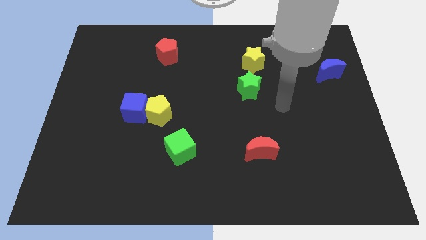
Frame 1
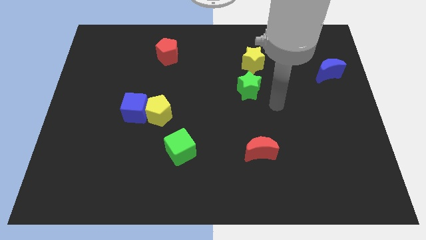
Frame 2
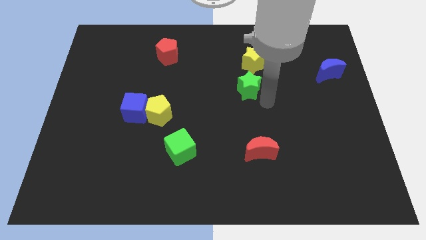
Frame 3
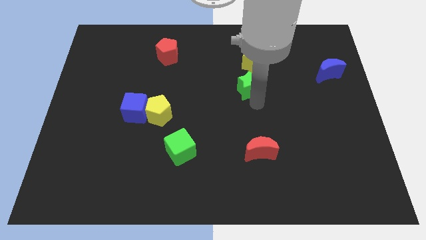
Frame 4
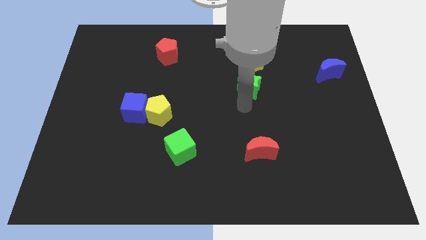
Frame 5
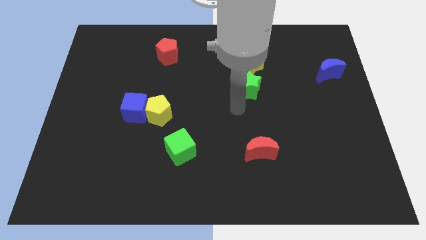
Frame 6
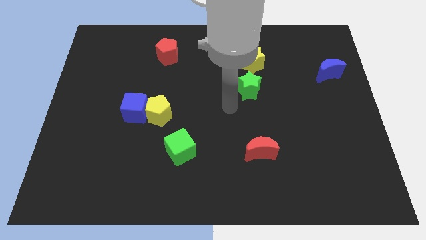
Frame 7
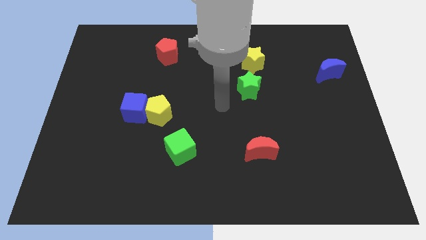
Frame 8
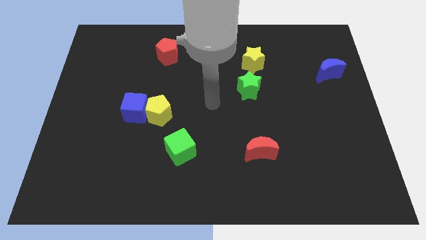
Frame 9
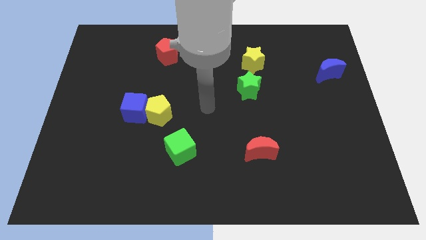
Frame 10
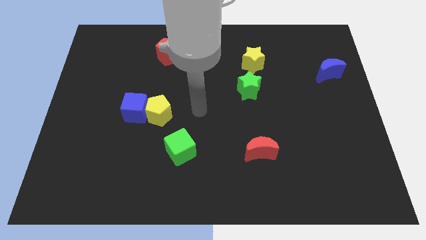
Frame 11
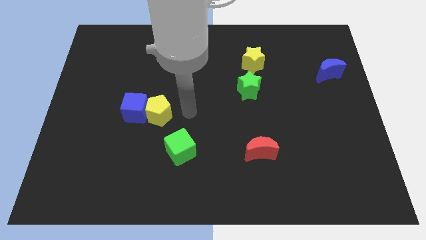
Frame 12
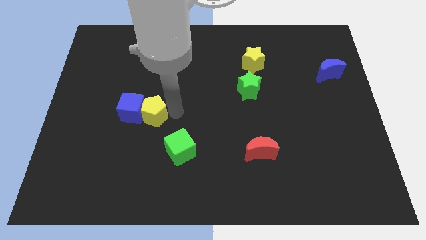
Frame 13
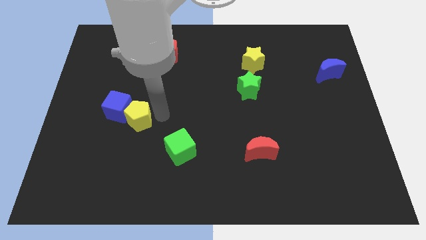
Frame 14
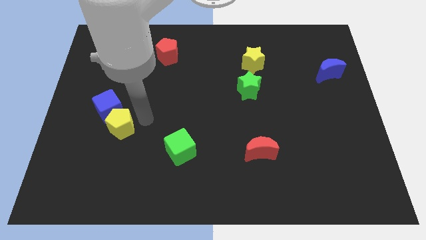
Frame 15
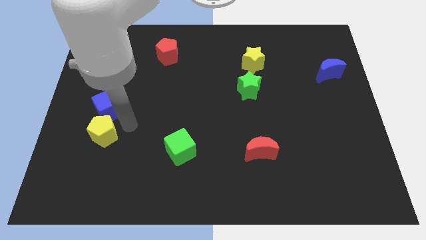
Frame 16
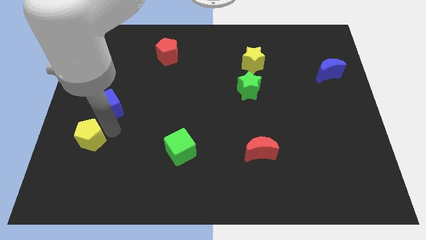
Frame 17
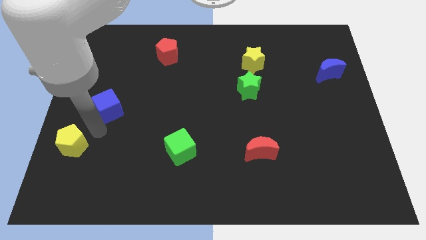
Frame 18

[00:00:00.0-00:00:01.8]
move the blue cube away from the yellow pentagon

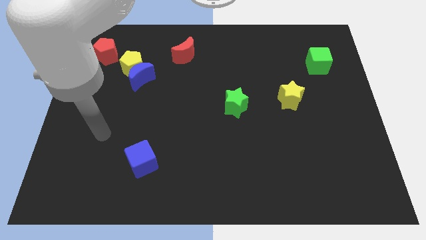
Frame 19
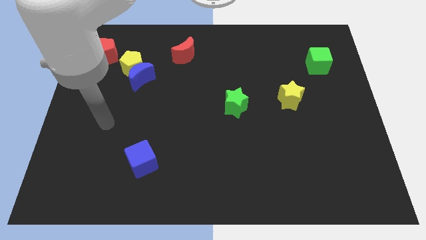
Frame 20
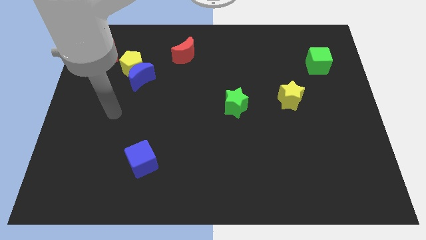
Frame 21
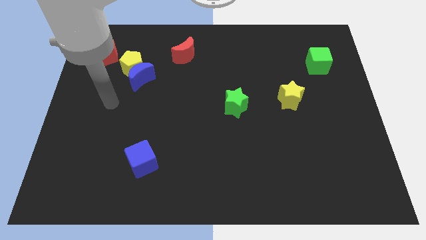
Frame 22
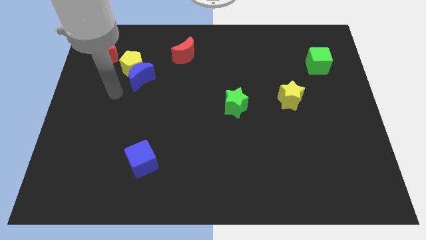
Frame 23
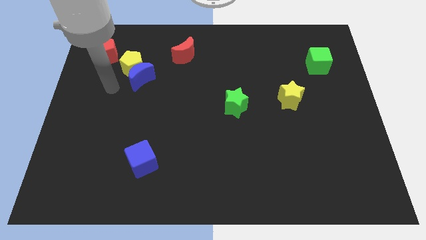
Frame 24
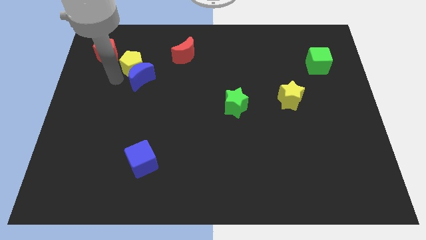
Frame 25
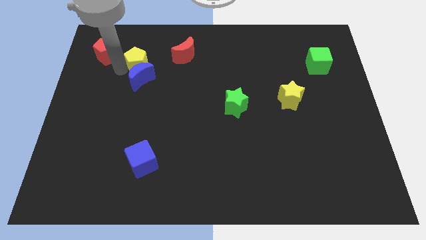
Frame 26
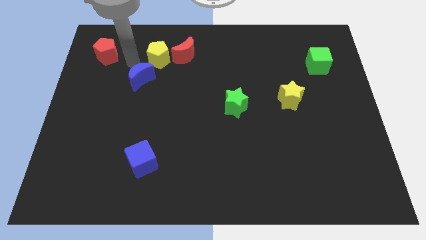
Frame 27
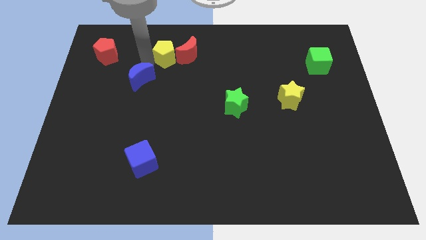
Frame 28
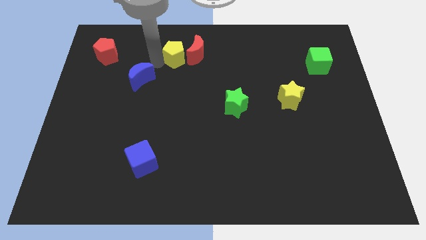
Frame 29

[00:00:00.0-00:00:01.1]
pull the blue moon apart from the yellow pentagon

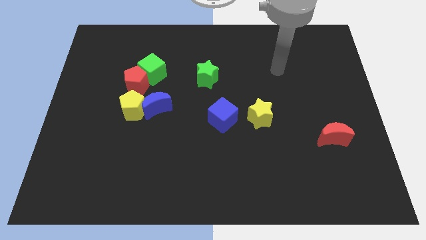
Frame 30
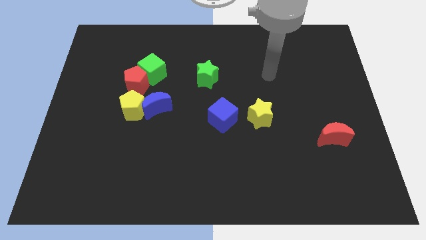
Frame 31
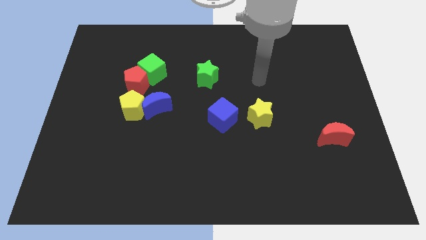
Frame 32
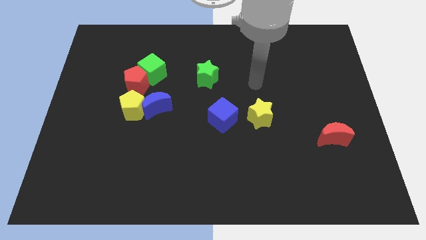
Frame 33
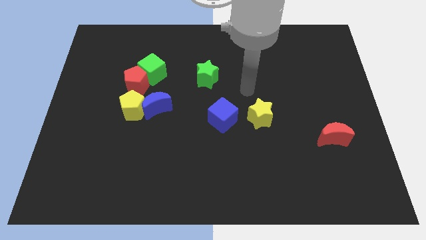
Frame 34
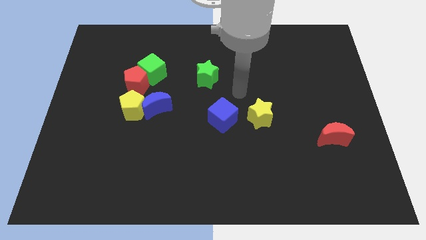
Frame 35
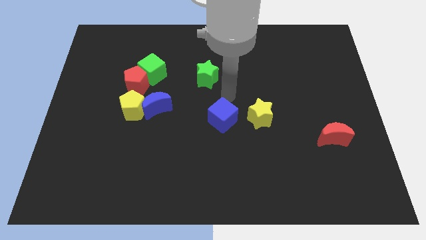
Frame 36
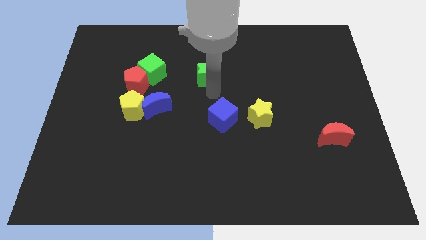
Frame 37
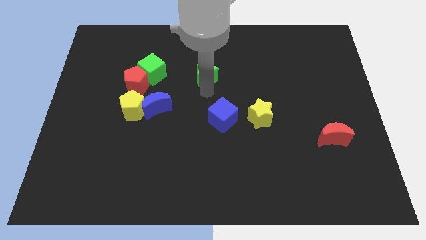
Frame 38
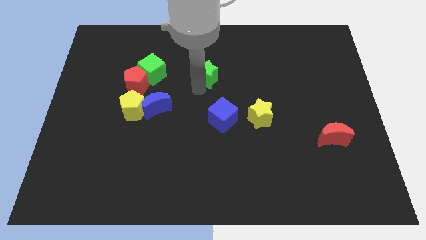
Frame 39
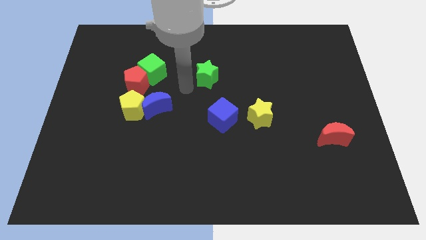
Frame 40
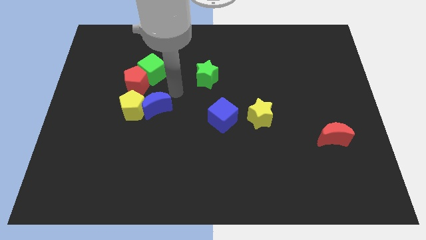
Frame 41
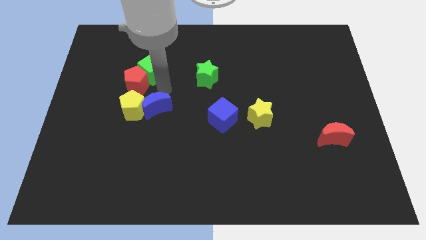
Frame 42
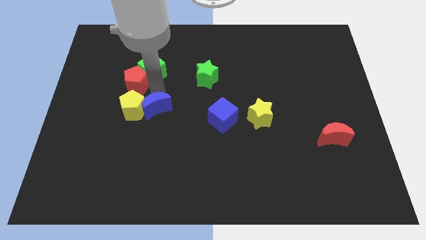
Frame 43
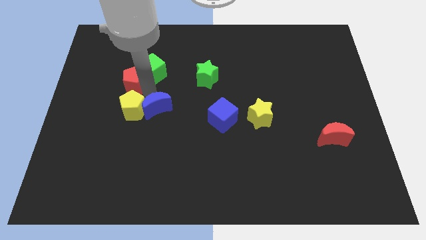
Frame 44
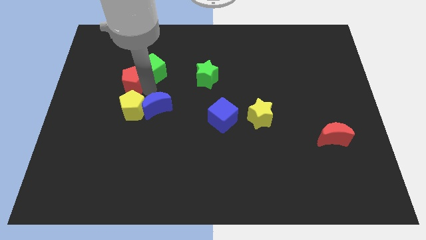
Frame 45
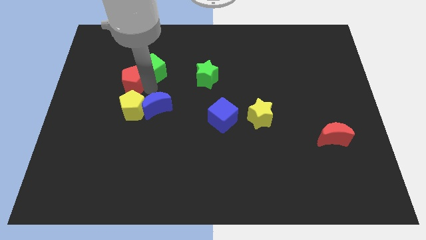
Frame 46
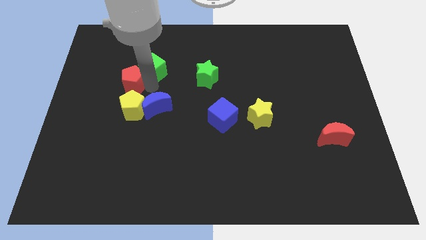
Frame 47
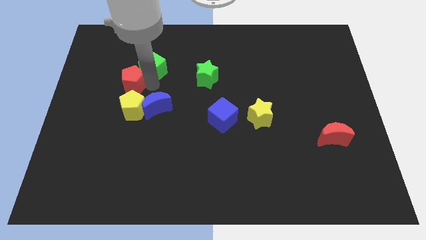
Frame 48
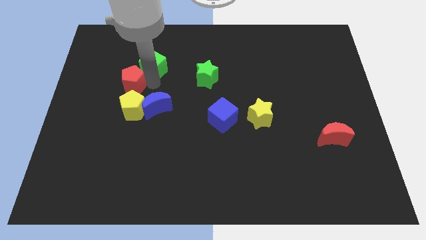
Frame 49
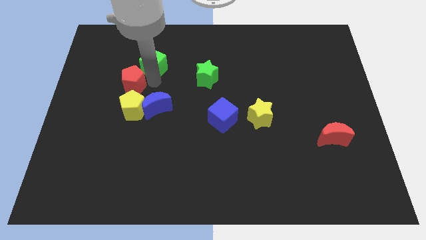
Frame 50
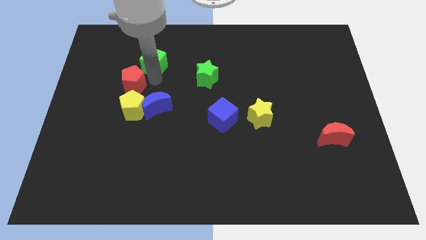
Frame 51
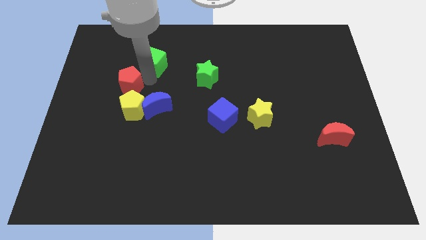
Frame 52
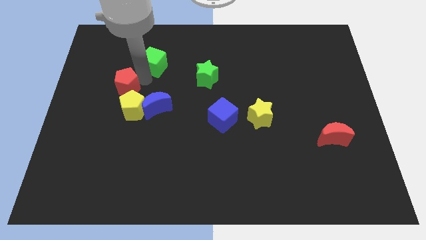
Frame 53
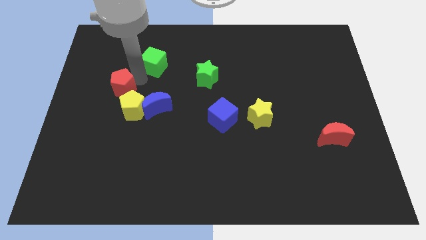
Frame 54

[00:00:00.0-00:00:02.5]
move the green cube away from the red pentagon

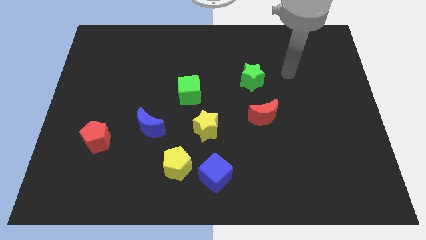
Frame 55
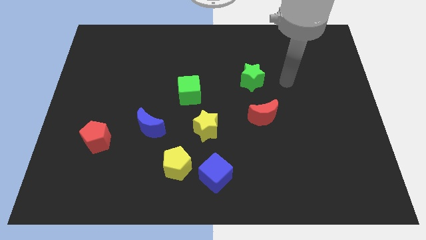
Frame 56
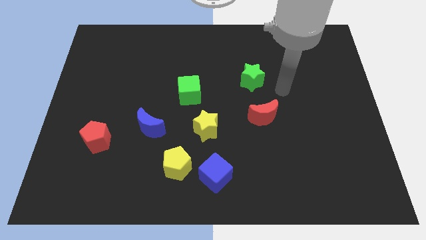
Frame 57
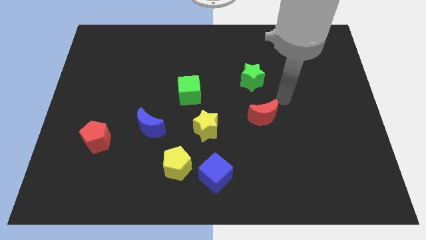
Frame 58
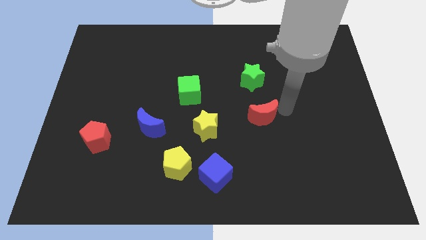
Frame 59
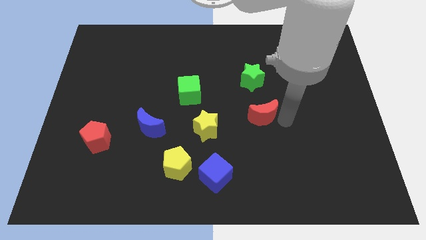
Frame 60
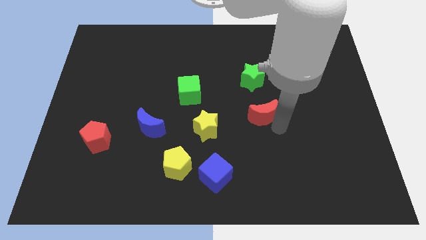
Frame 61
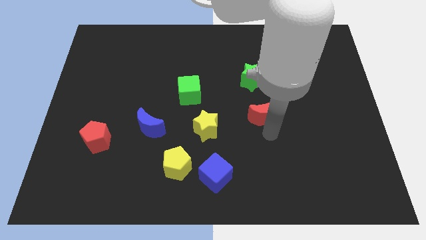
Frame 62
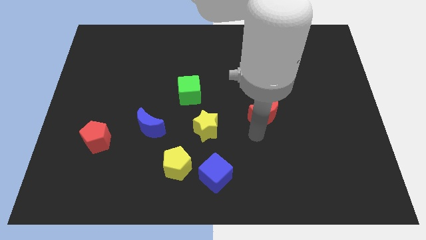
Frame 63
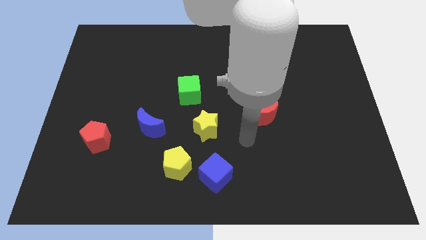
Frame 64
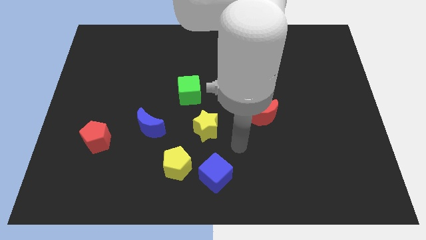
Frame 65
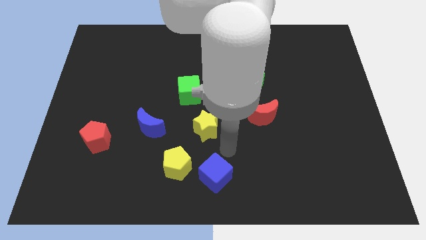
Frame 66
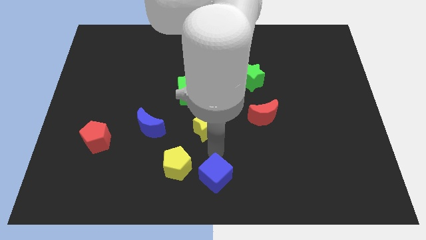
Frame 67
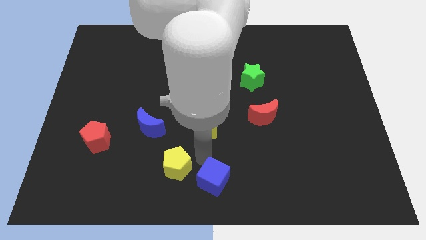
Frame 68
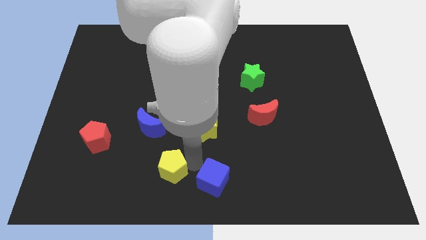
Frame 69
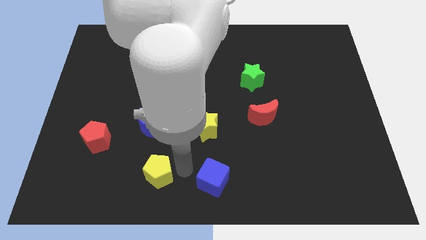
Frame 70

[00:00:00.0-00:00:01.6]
pull the blue cube apart from the yellow pentagon

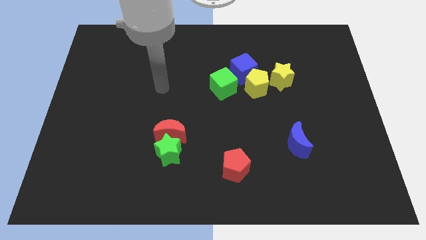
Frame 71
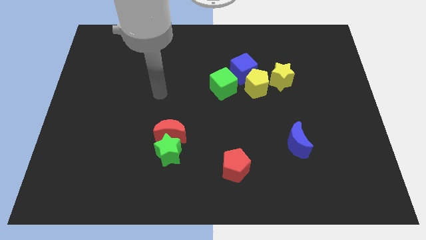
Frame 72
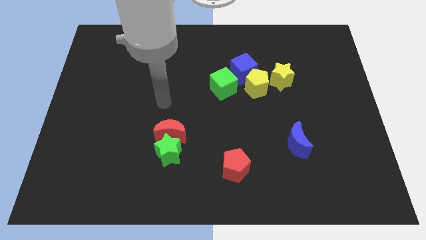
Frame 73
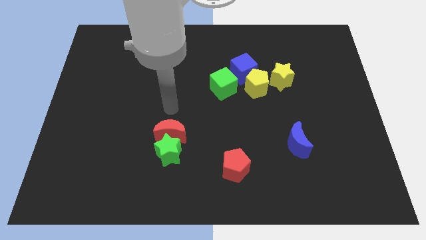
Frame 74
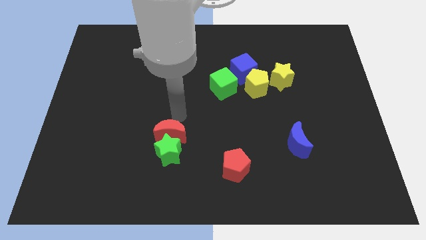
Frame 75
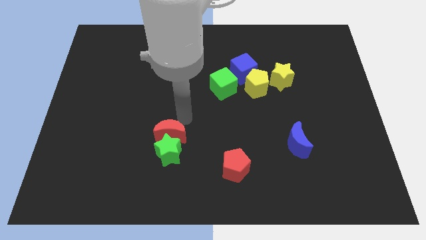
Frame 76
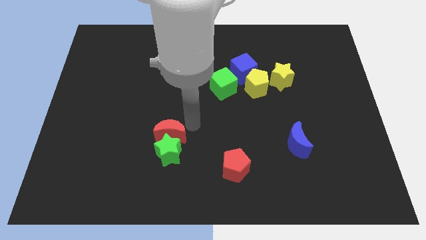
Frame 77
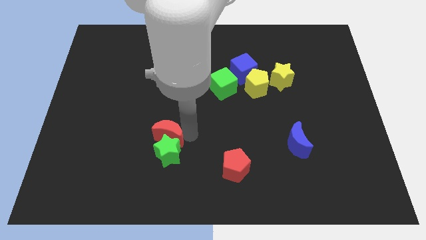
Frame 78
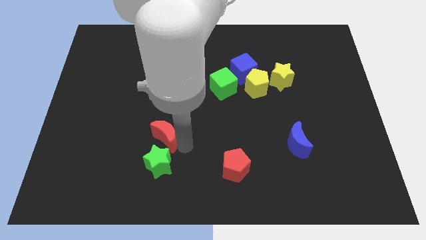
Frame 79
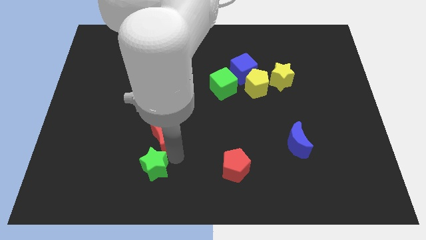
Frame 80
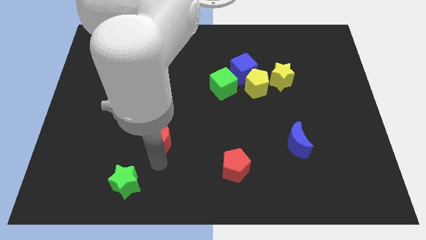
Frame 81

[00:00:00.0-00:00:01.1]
pull the red moon apart from the green star

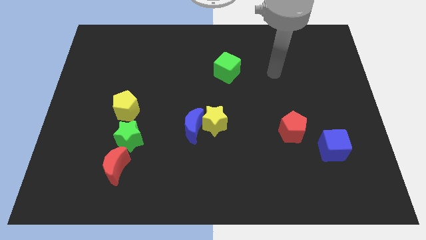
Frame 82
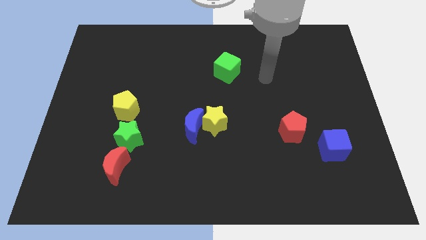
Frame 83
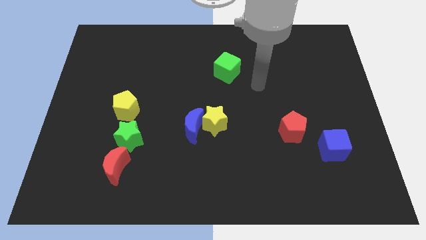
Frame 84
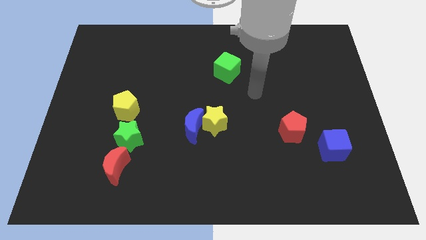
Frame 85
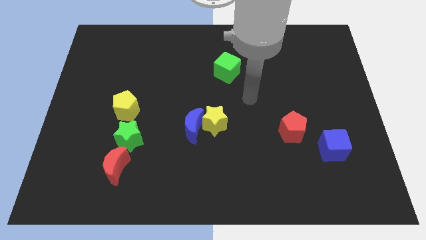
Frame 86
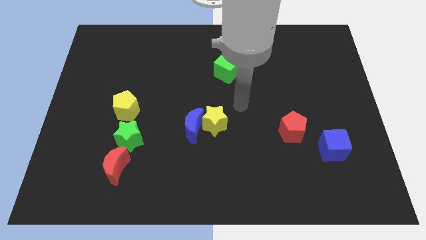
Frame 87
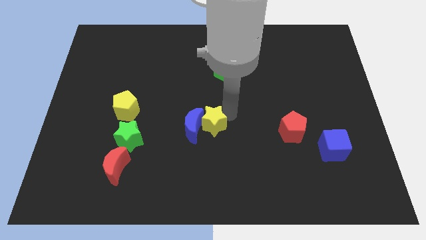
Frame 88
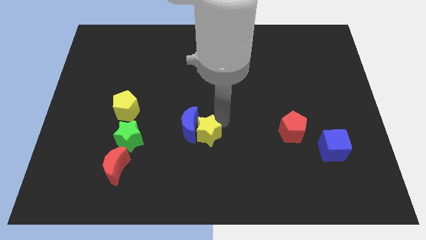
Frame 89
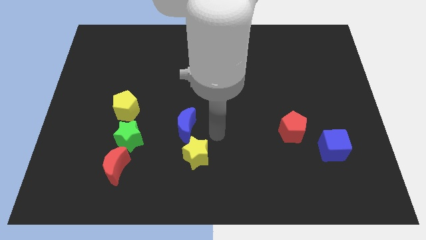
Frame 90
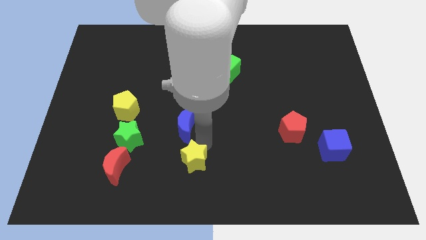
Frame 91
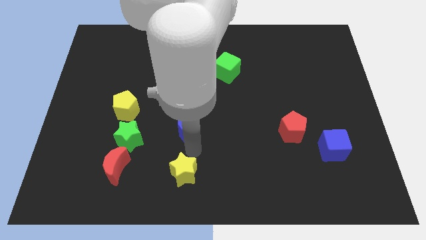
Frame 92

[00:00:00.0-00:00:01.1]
pull the blue moon apart from the yellow star

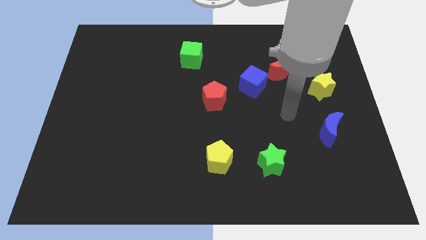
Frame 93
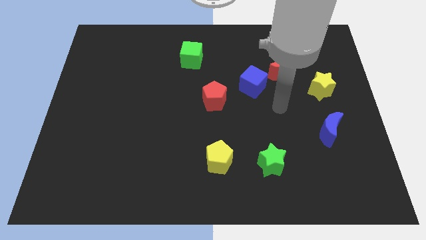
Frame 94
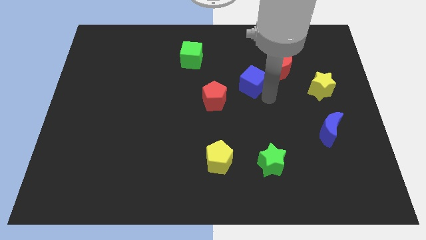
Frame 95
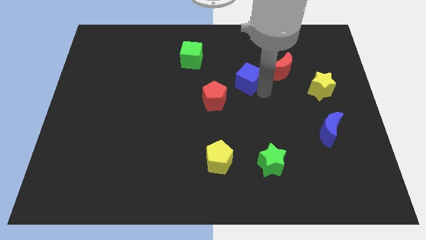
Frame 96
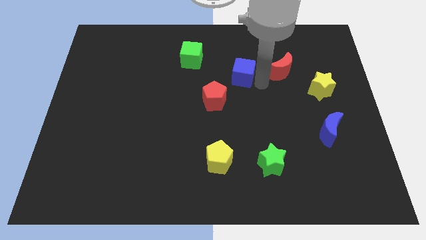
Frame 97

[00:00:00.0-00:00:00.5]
move the red moon away from the blue cube
